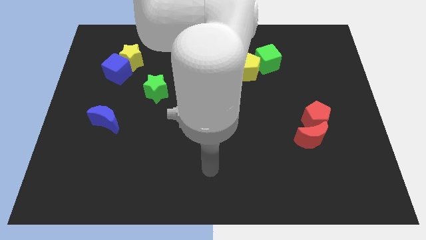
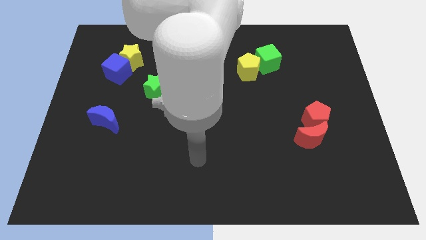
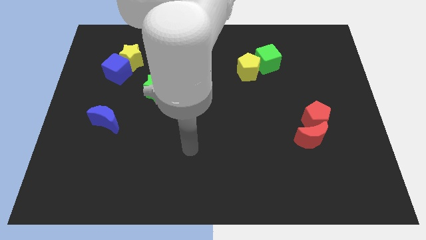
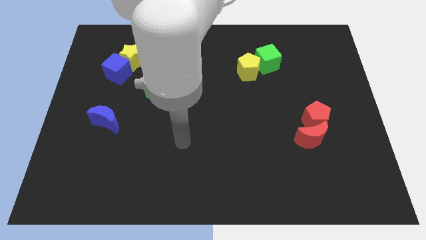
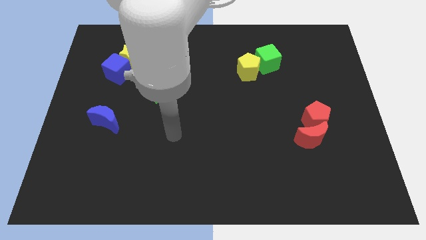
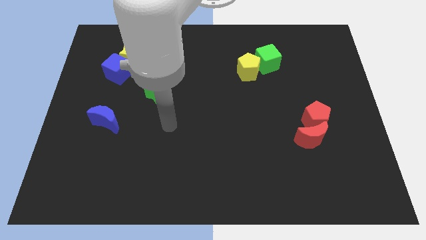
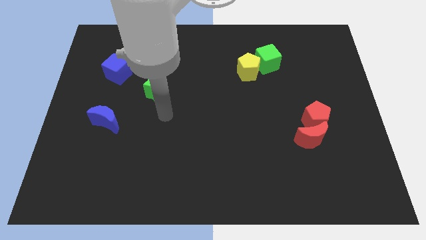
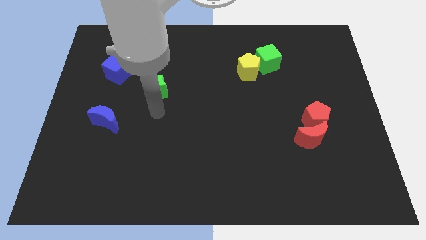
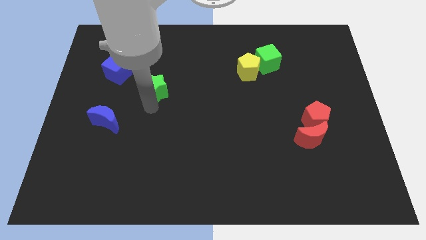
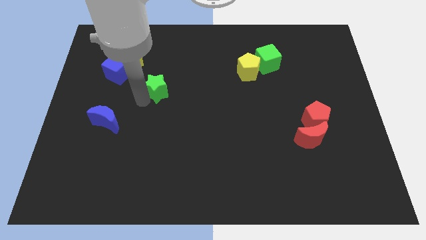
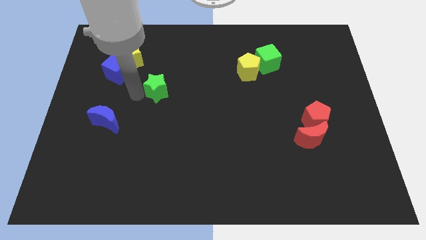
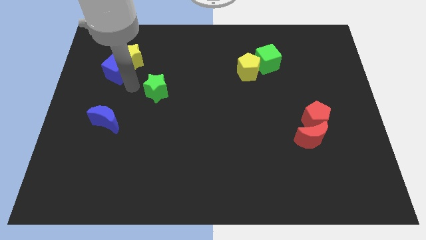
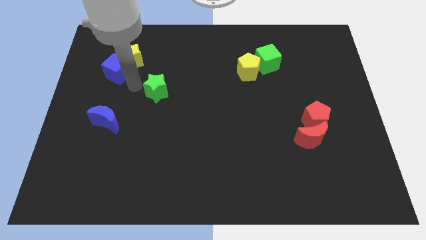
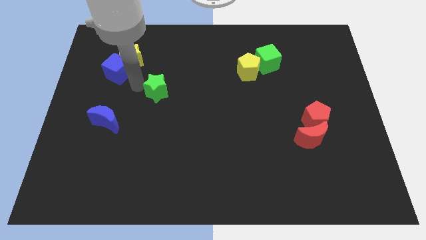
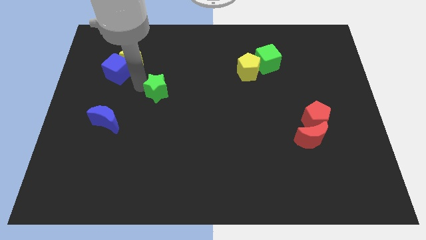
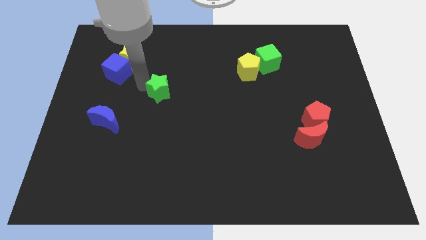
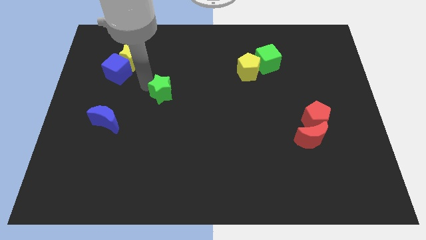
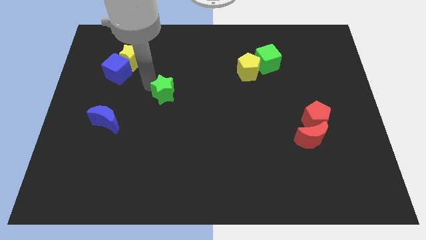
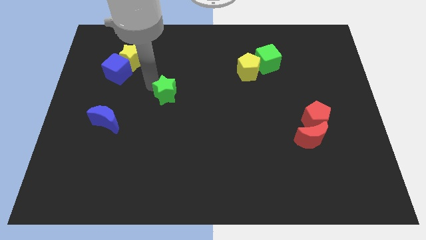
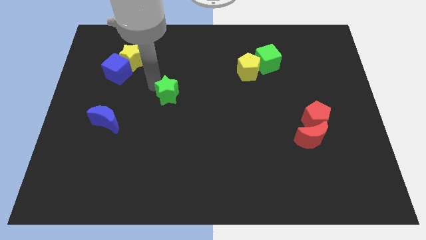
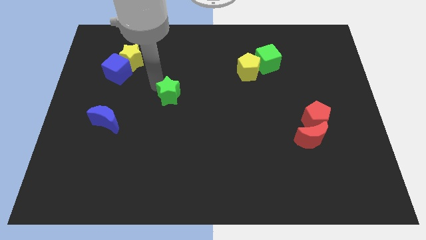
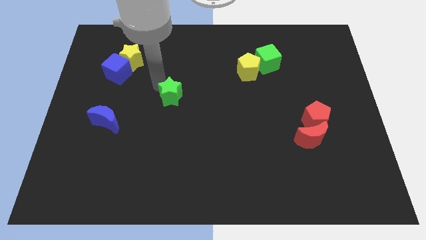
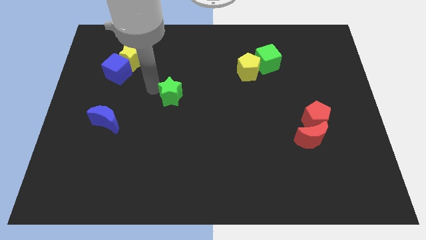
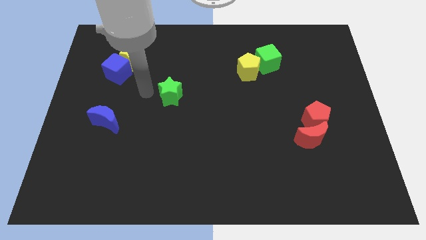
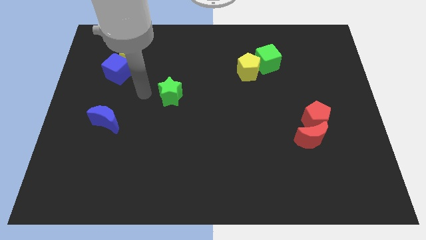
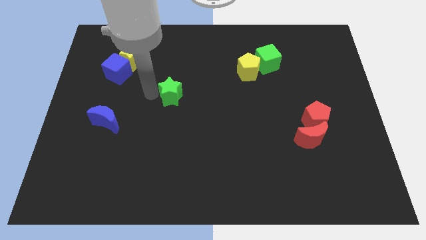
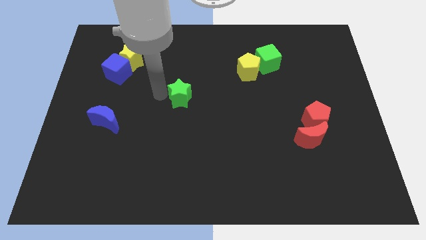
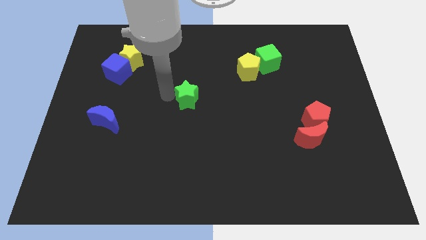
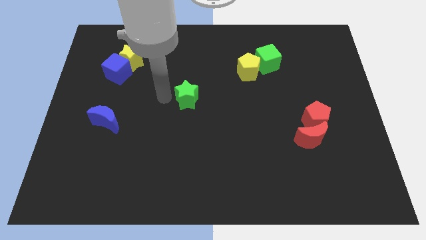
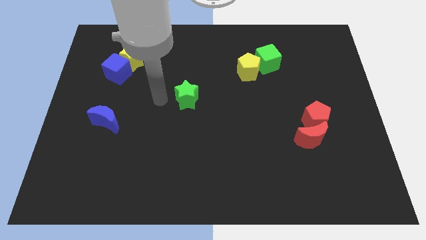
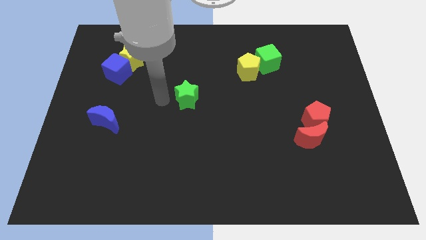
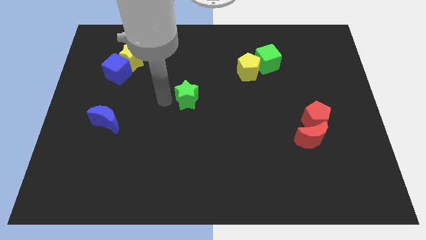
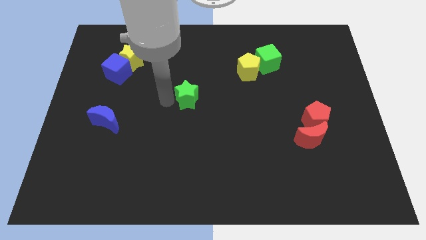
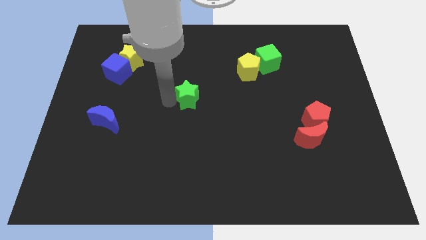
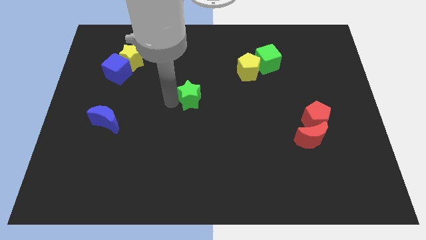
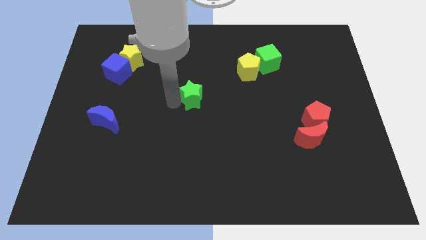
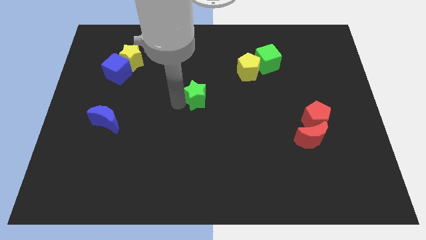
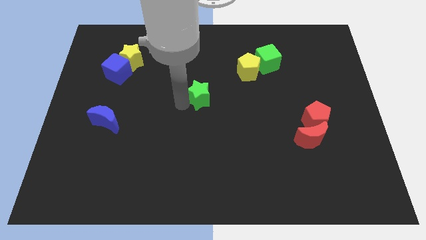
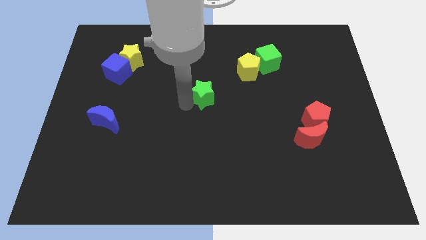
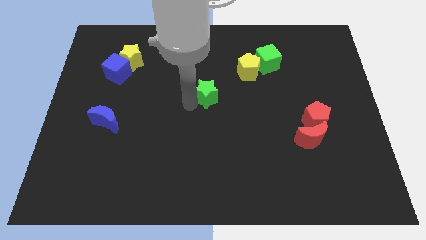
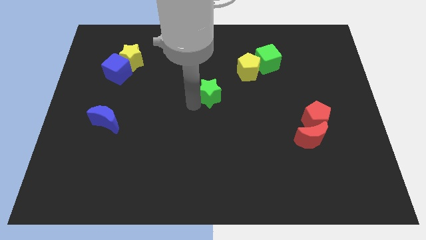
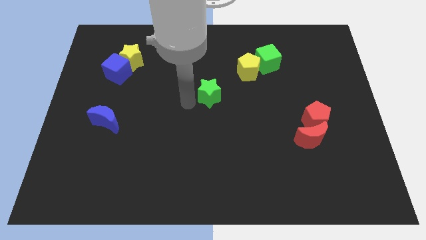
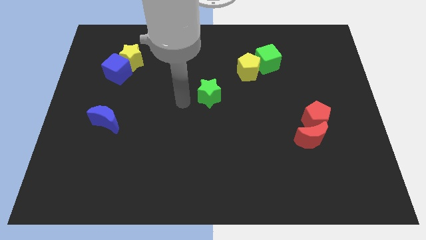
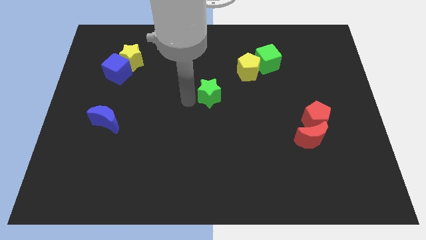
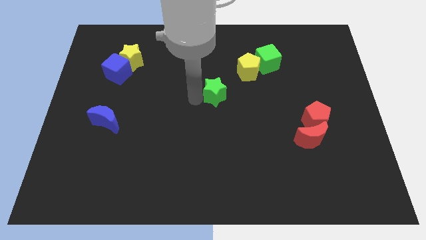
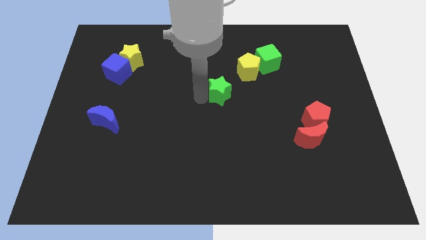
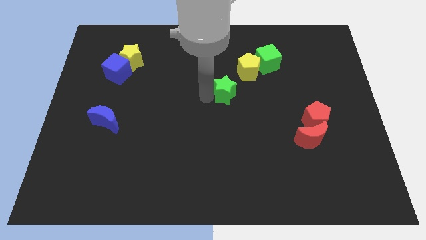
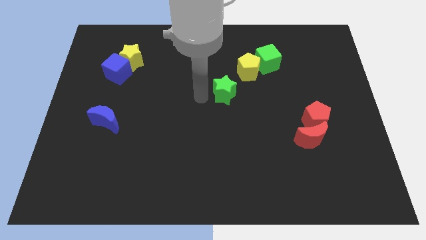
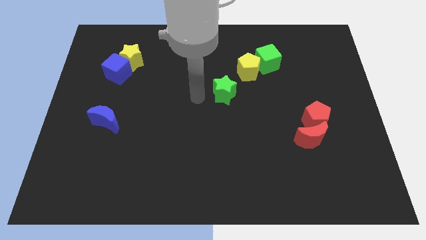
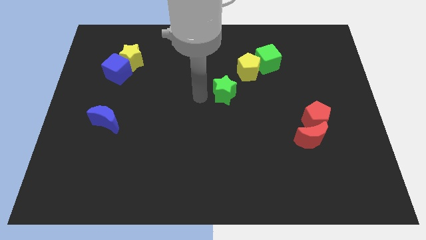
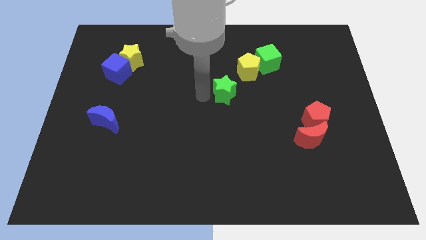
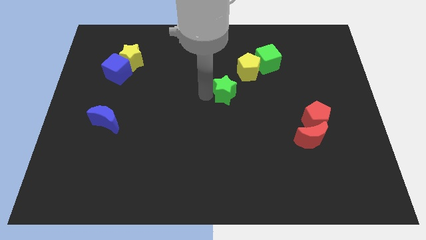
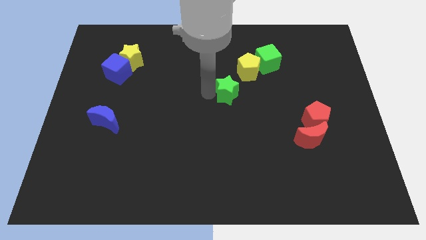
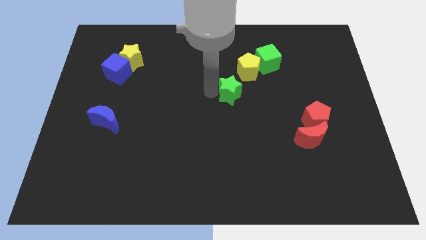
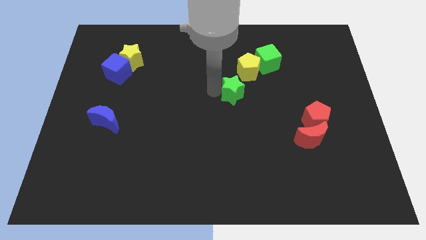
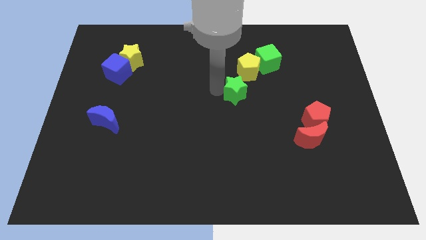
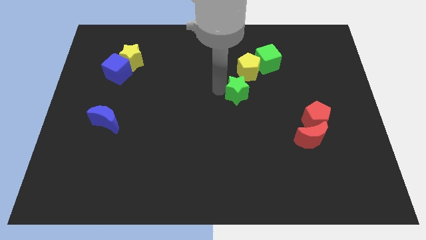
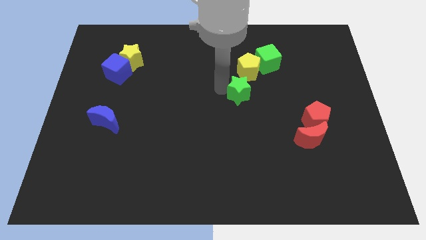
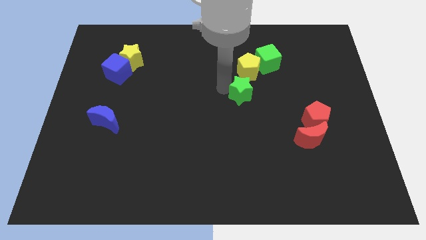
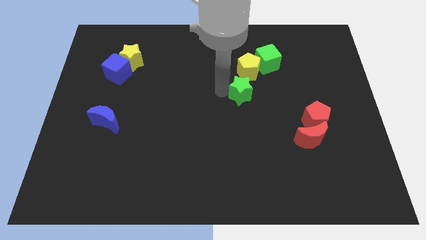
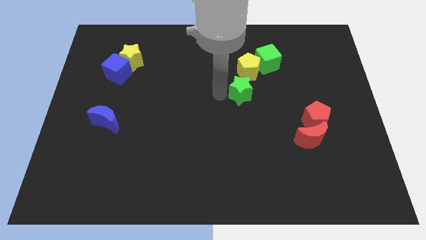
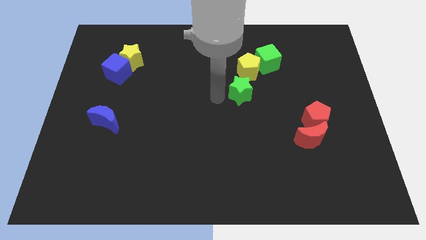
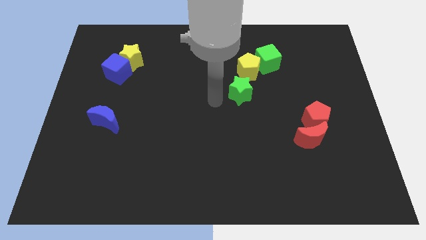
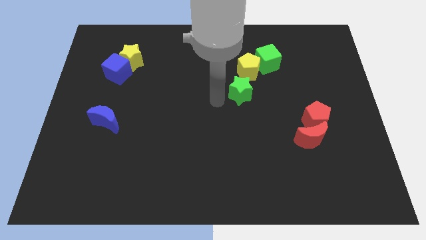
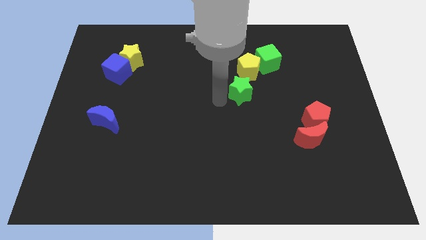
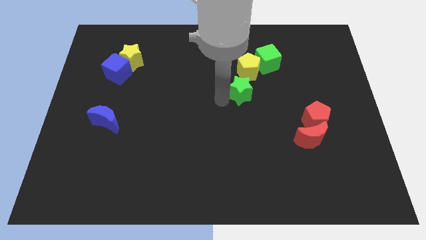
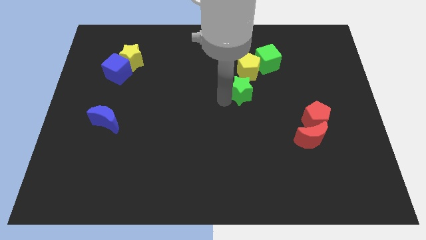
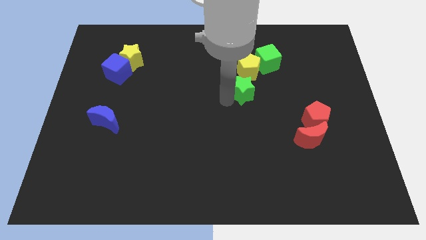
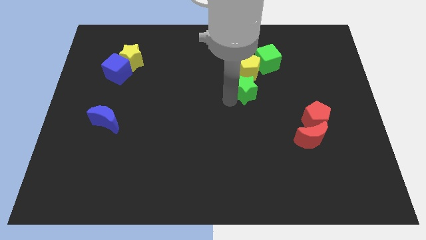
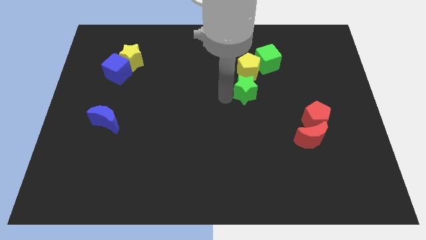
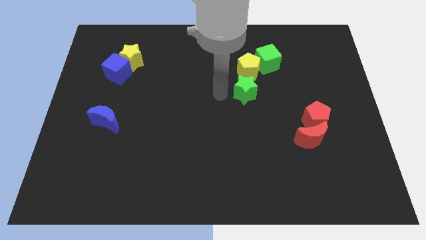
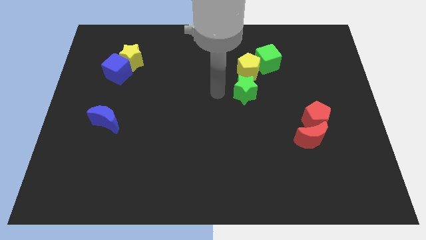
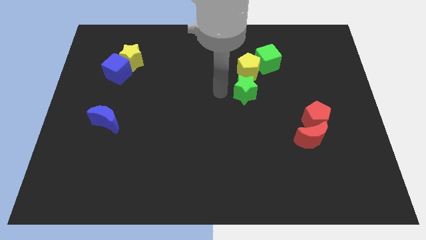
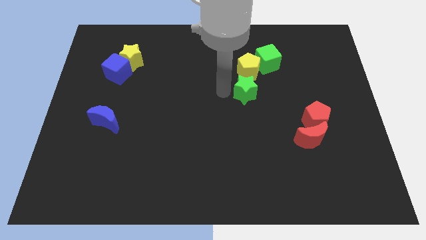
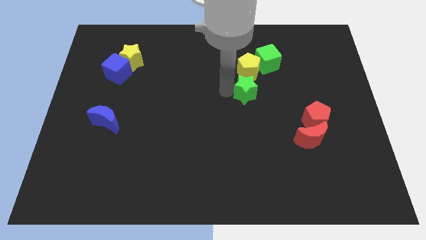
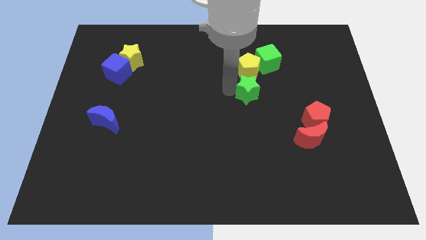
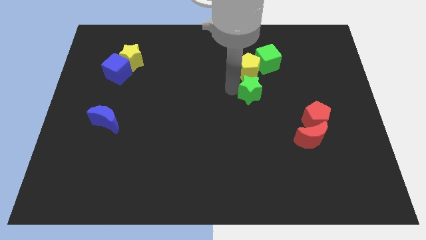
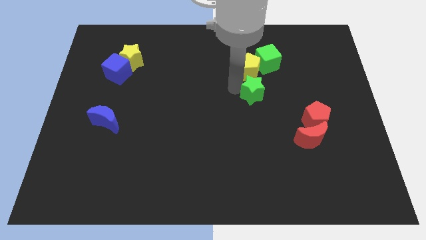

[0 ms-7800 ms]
slide the green star to the bottom of the green cube
